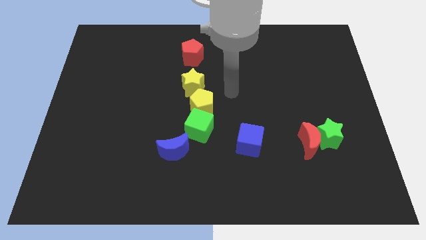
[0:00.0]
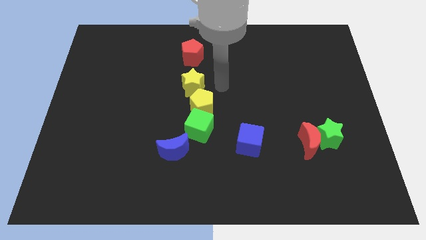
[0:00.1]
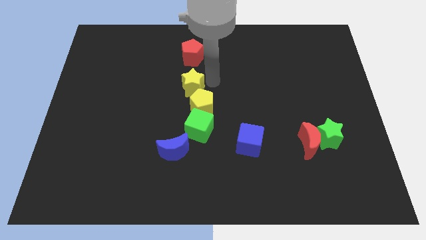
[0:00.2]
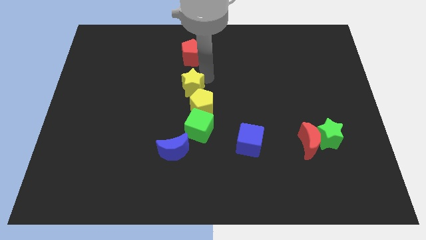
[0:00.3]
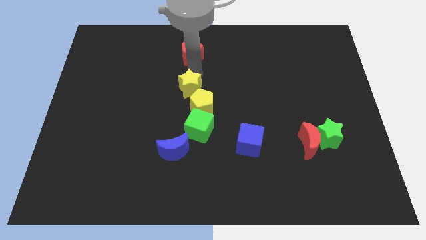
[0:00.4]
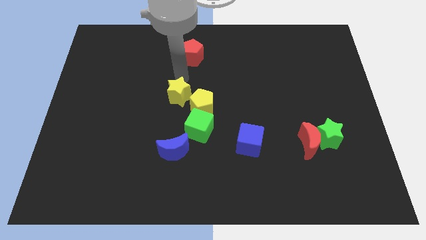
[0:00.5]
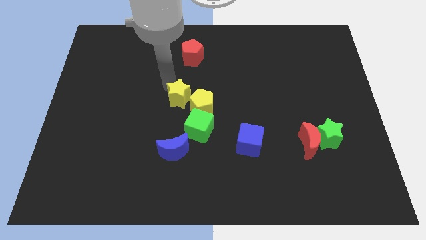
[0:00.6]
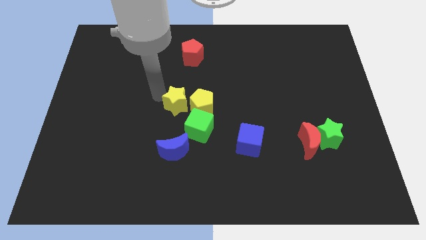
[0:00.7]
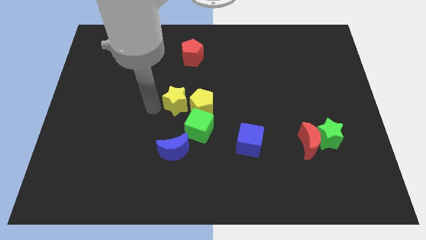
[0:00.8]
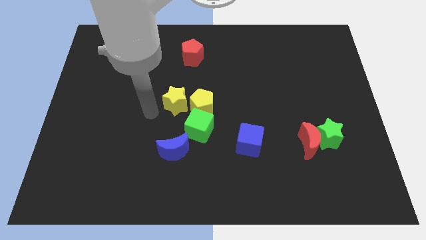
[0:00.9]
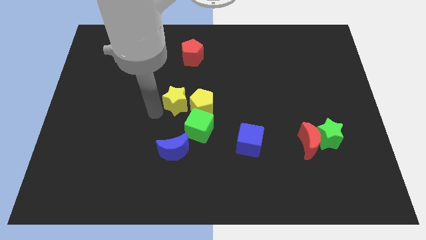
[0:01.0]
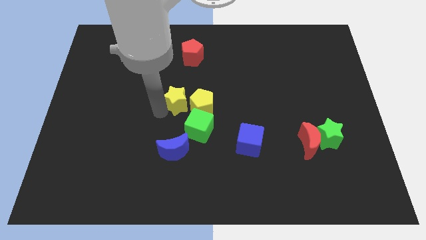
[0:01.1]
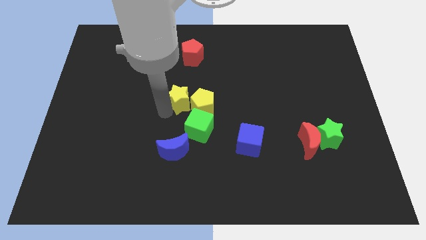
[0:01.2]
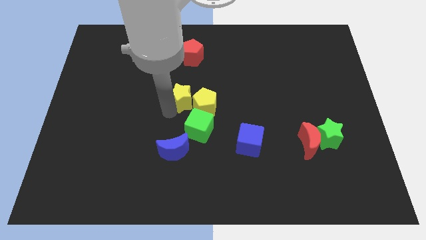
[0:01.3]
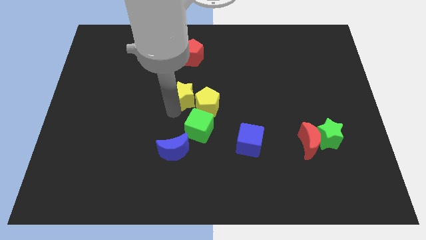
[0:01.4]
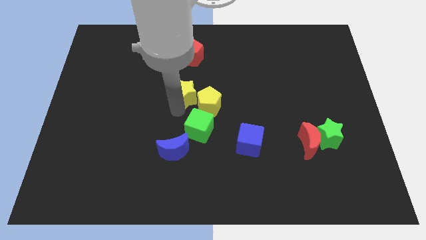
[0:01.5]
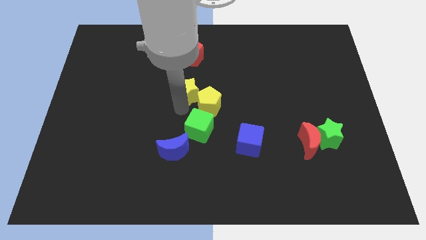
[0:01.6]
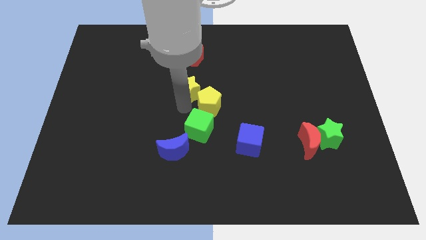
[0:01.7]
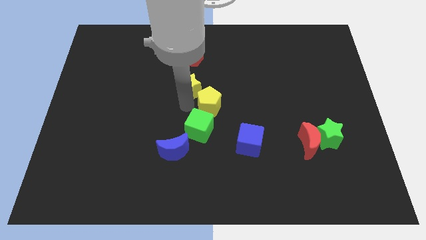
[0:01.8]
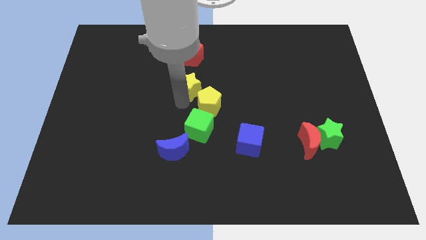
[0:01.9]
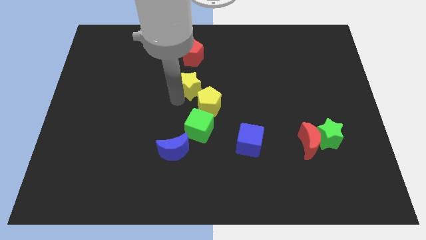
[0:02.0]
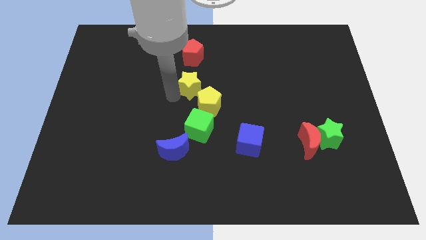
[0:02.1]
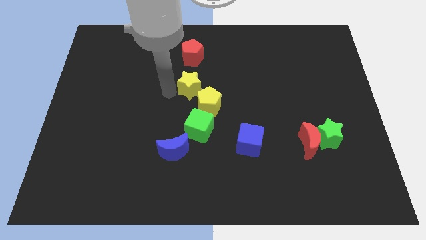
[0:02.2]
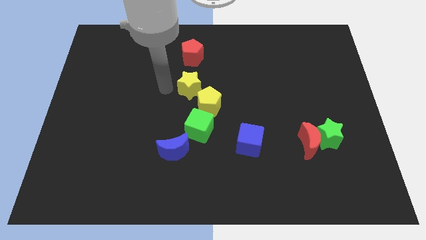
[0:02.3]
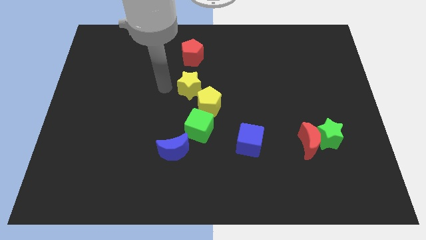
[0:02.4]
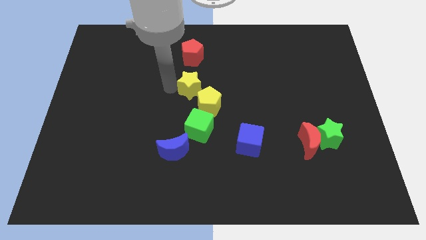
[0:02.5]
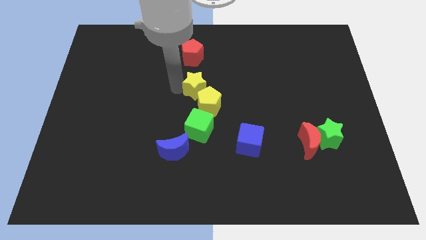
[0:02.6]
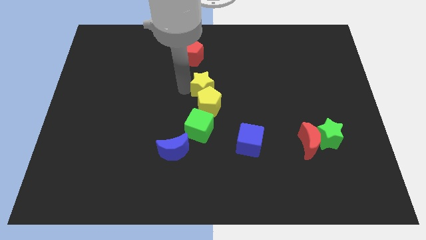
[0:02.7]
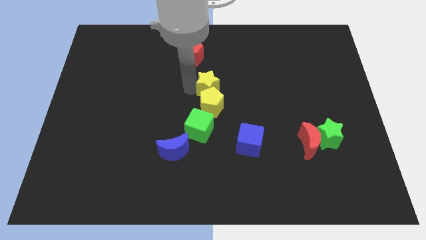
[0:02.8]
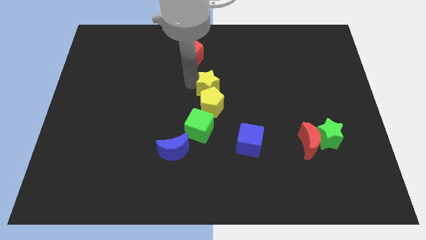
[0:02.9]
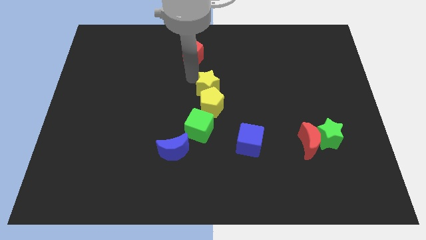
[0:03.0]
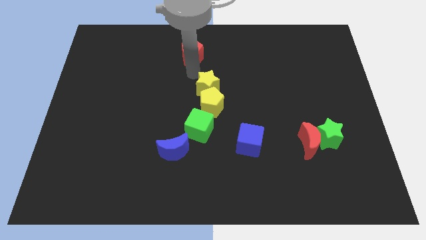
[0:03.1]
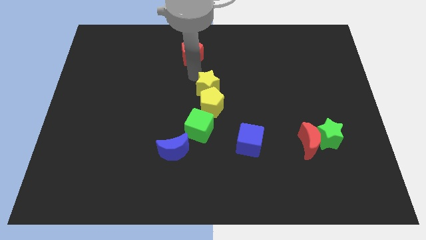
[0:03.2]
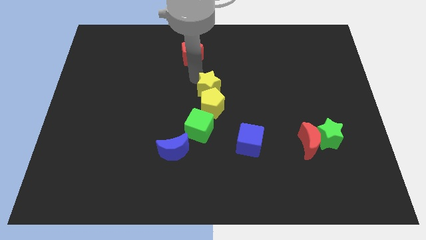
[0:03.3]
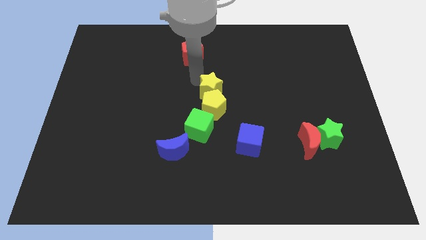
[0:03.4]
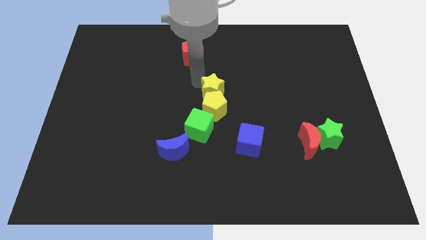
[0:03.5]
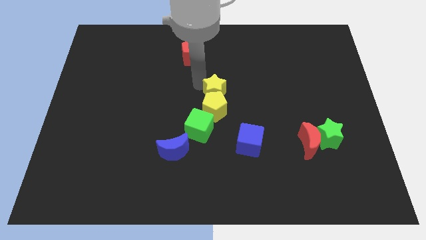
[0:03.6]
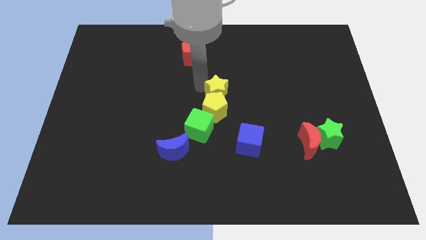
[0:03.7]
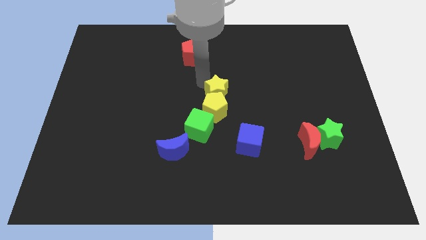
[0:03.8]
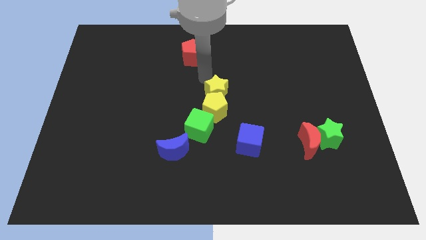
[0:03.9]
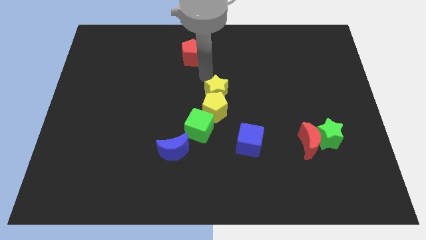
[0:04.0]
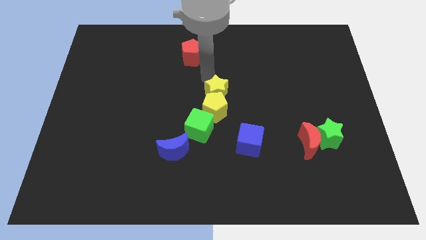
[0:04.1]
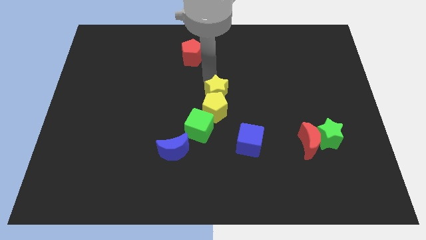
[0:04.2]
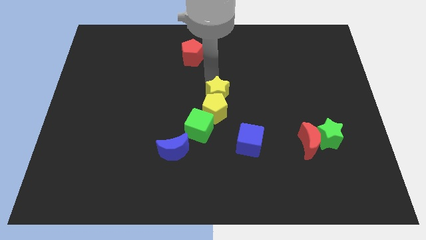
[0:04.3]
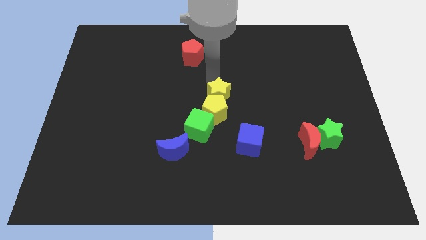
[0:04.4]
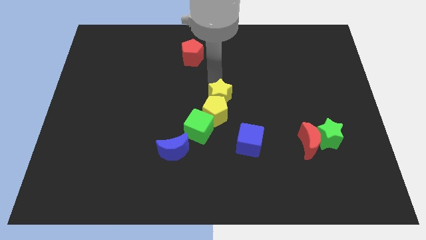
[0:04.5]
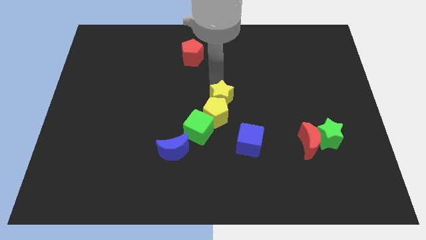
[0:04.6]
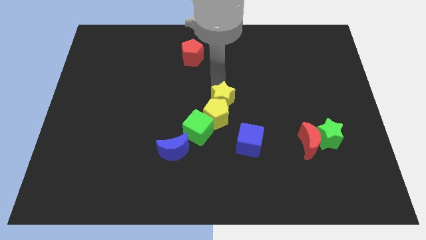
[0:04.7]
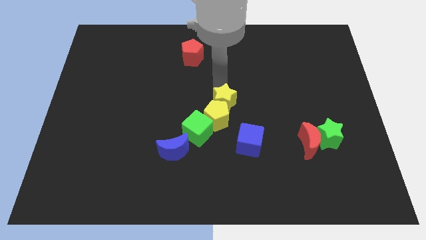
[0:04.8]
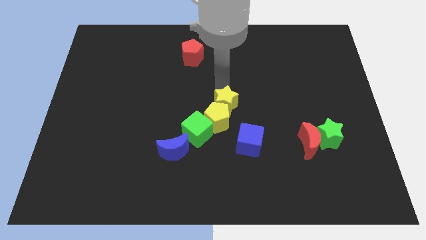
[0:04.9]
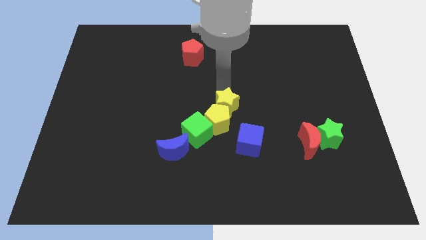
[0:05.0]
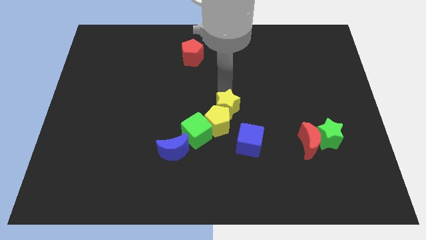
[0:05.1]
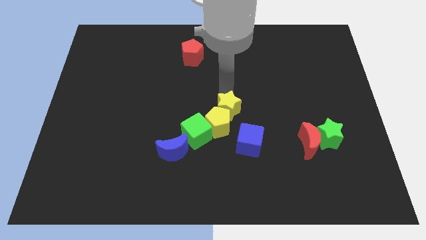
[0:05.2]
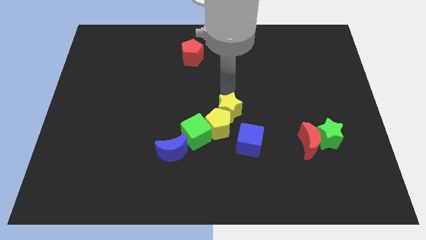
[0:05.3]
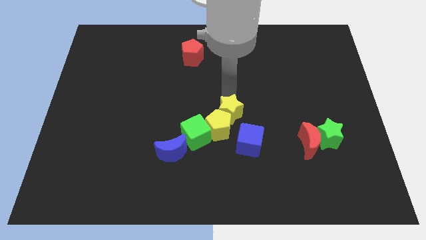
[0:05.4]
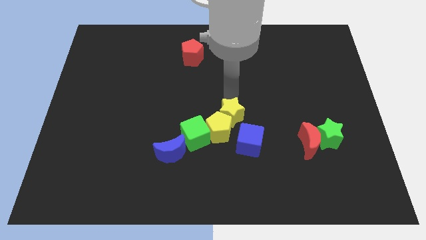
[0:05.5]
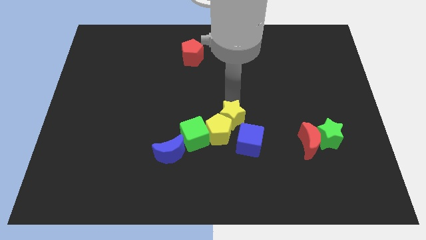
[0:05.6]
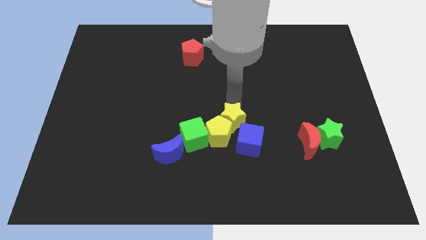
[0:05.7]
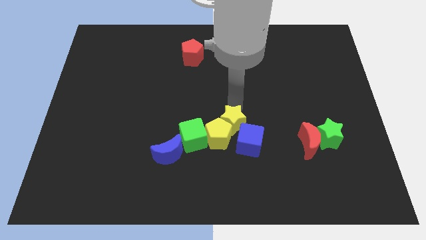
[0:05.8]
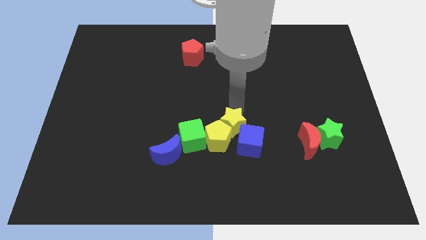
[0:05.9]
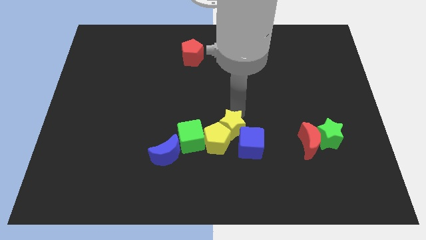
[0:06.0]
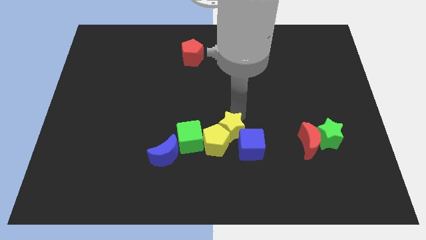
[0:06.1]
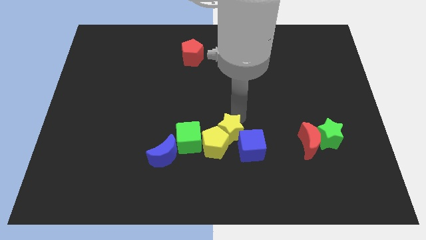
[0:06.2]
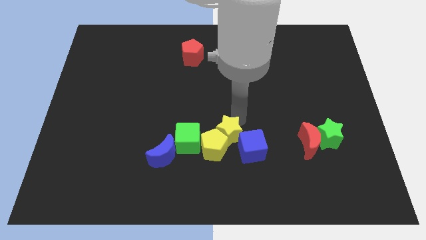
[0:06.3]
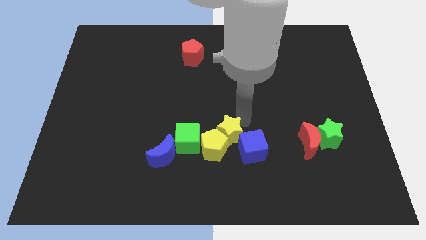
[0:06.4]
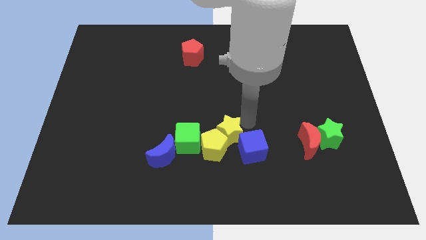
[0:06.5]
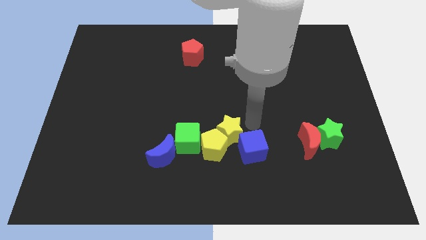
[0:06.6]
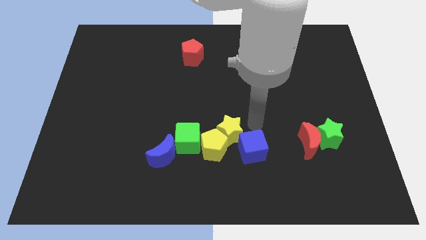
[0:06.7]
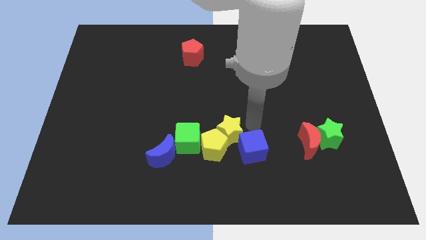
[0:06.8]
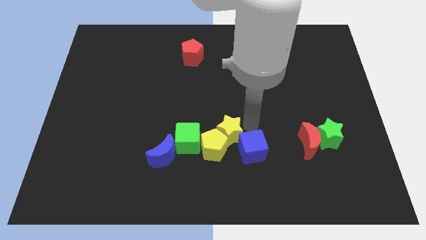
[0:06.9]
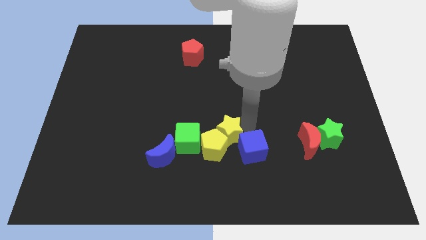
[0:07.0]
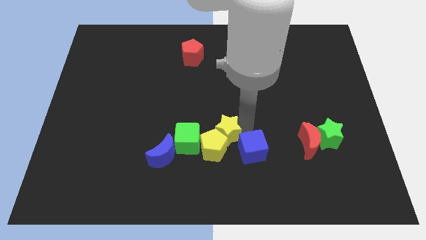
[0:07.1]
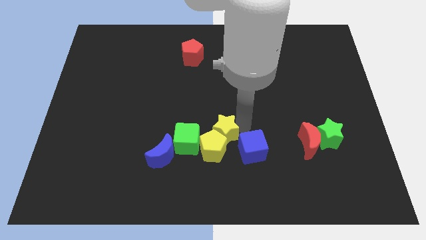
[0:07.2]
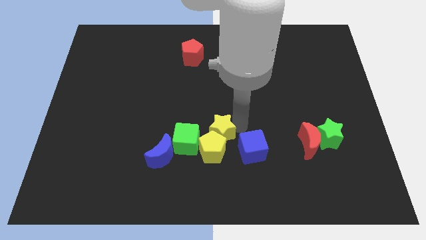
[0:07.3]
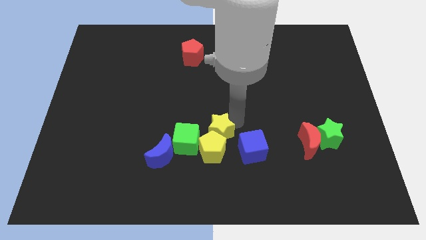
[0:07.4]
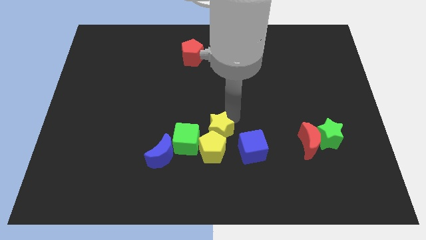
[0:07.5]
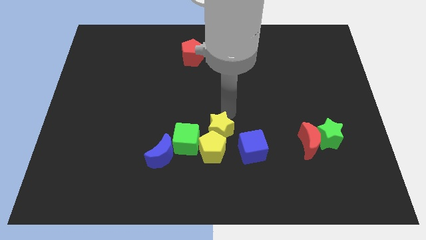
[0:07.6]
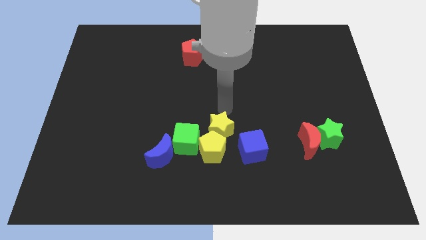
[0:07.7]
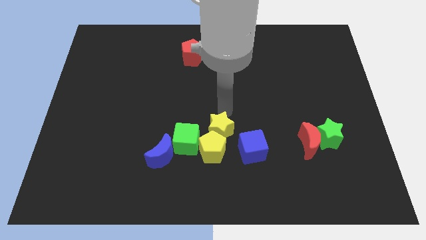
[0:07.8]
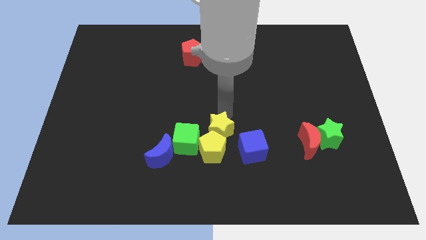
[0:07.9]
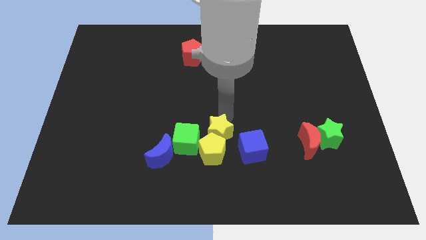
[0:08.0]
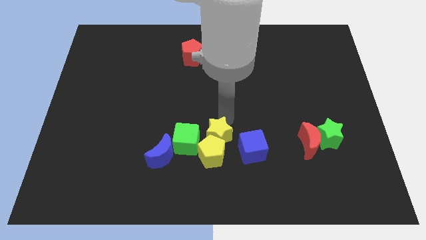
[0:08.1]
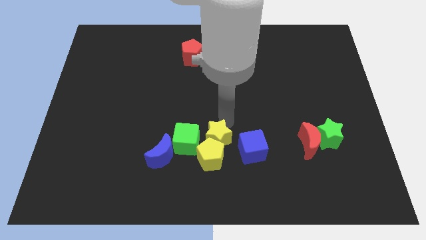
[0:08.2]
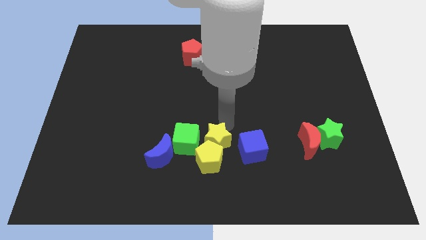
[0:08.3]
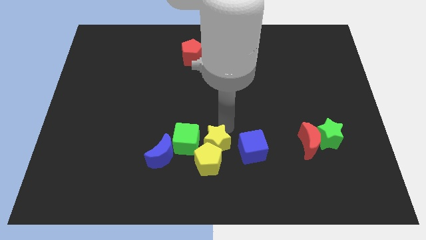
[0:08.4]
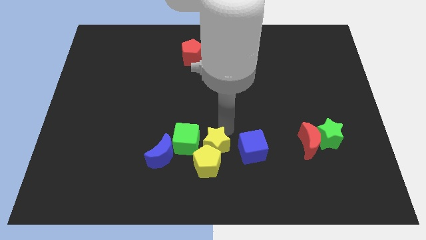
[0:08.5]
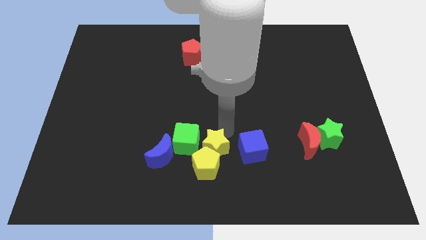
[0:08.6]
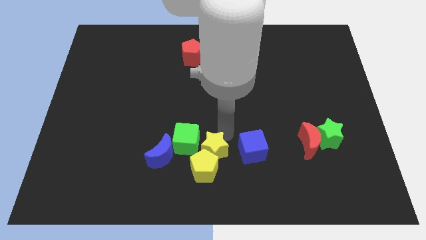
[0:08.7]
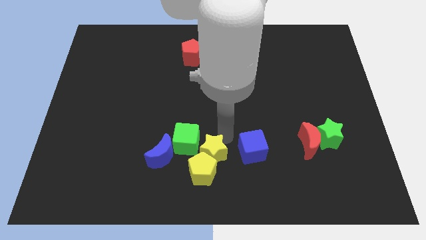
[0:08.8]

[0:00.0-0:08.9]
put the yellow star to the bottom
